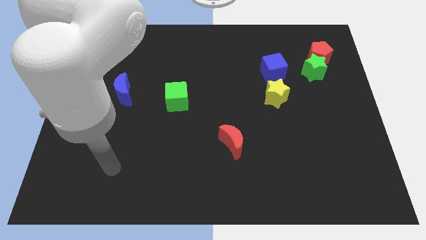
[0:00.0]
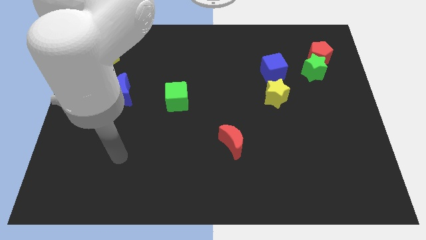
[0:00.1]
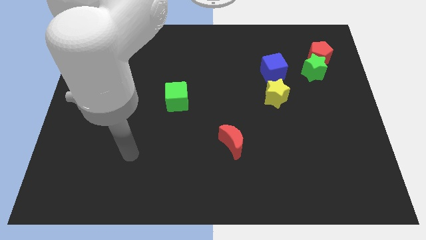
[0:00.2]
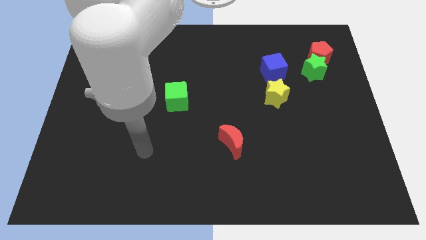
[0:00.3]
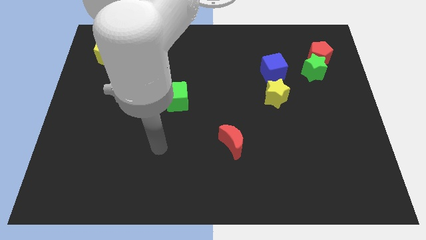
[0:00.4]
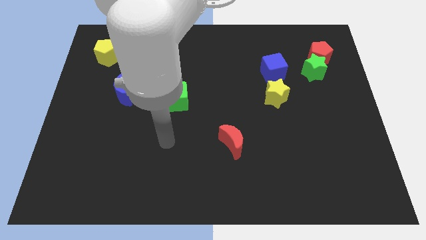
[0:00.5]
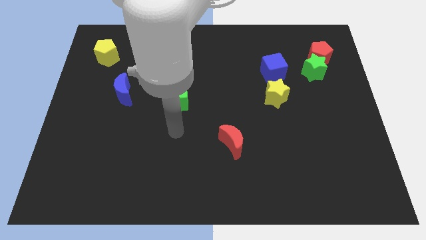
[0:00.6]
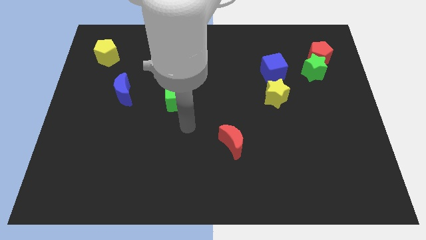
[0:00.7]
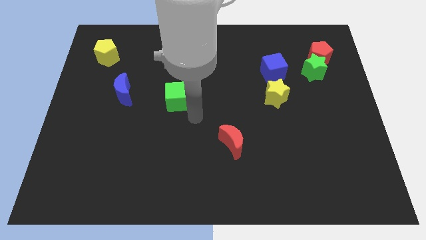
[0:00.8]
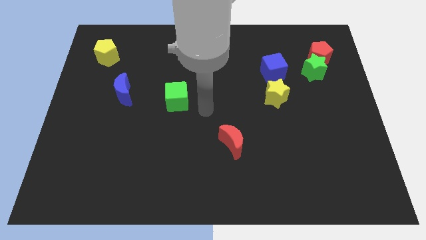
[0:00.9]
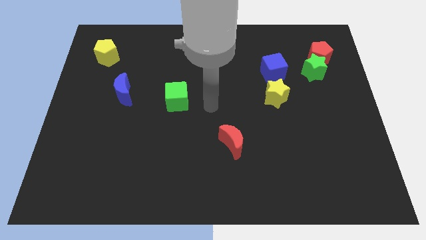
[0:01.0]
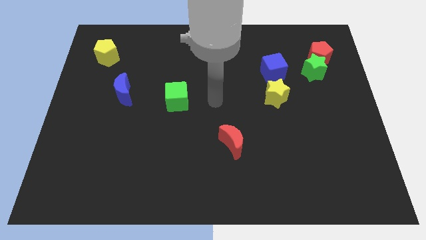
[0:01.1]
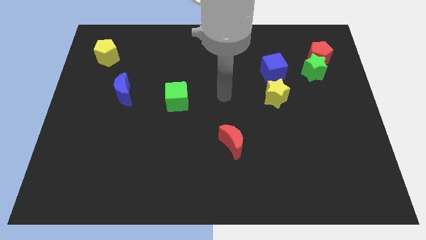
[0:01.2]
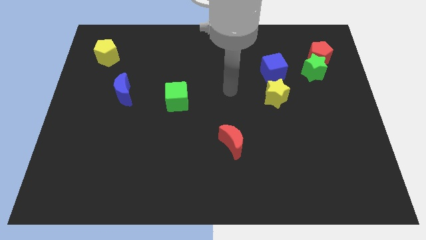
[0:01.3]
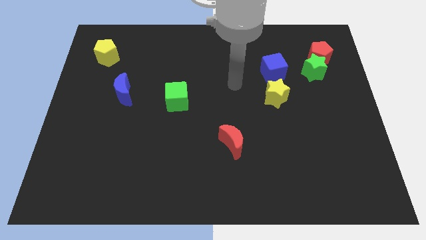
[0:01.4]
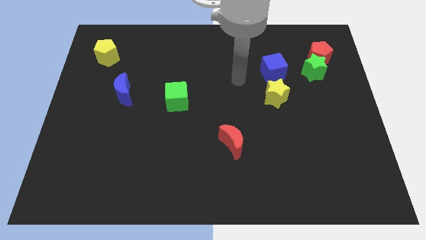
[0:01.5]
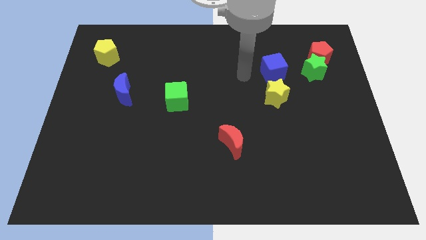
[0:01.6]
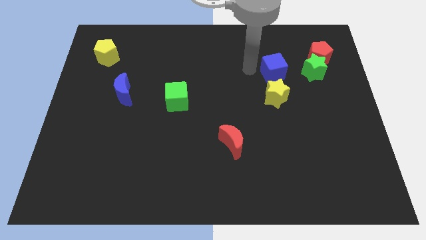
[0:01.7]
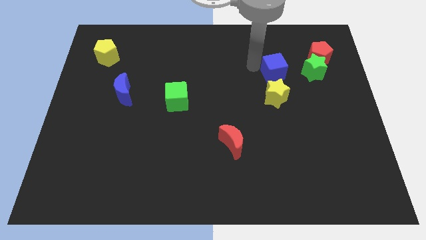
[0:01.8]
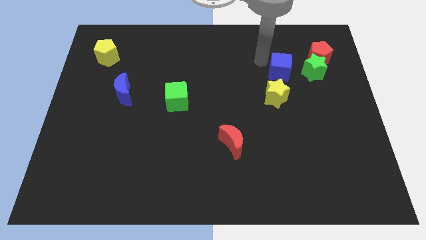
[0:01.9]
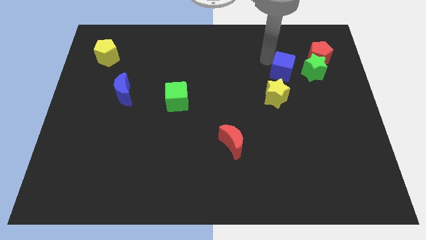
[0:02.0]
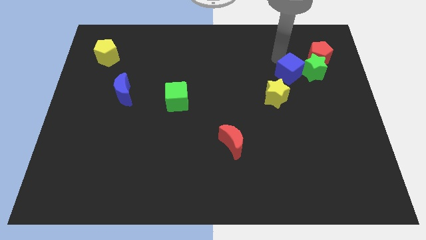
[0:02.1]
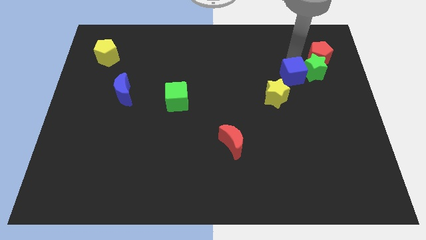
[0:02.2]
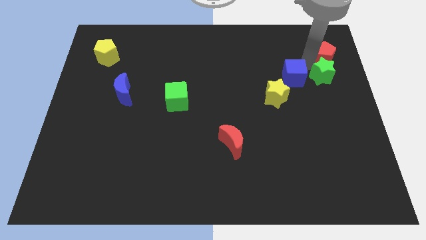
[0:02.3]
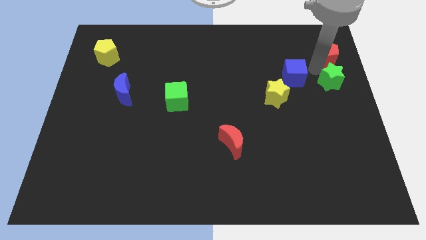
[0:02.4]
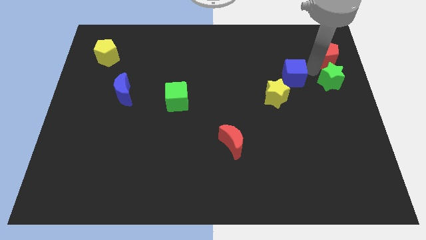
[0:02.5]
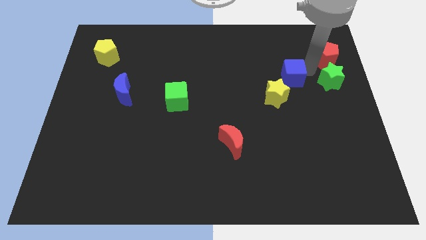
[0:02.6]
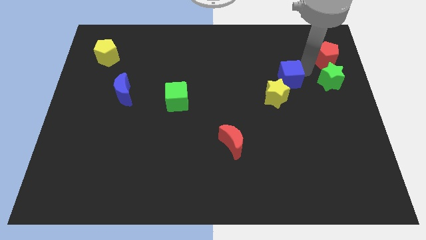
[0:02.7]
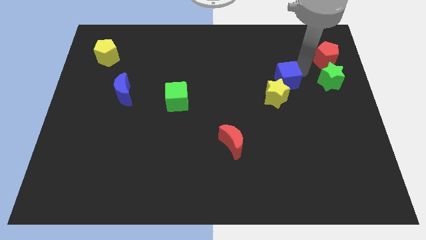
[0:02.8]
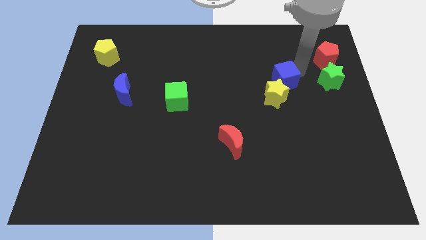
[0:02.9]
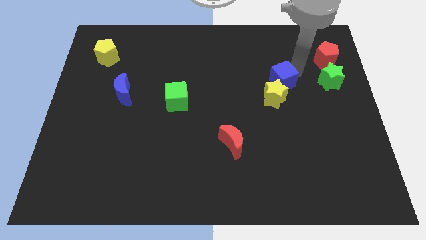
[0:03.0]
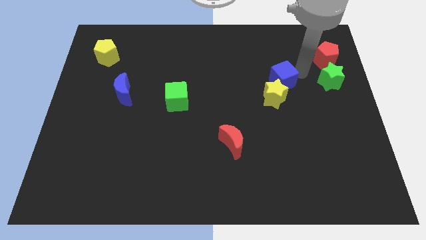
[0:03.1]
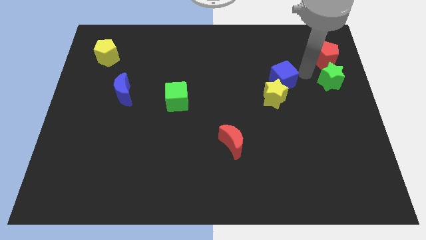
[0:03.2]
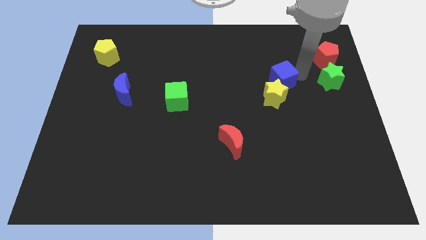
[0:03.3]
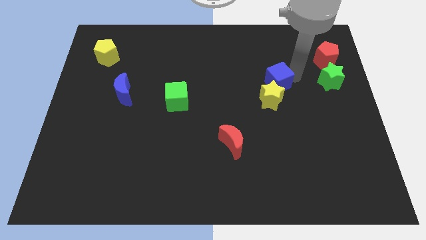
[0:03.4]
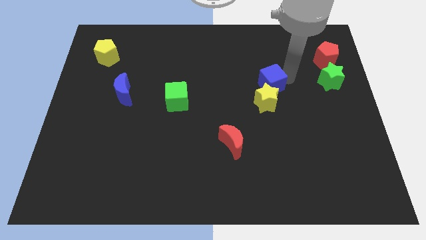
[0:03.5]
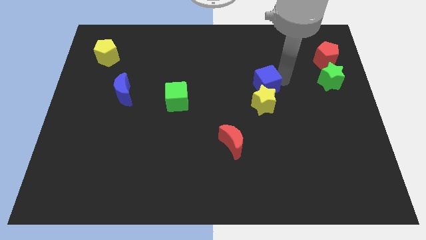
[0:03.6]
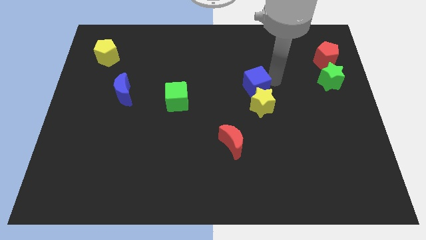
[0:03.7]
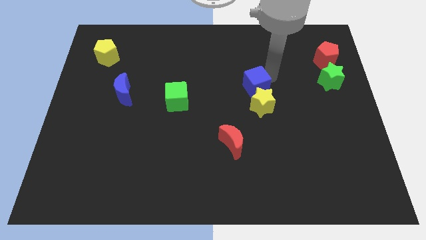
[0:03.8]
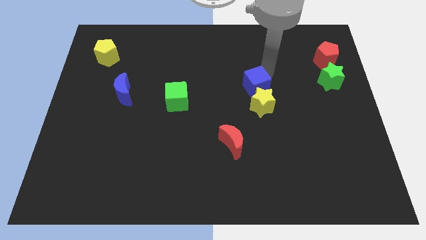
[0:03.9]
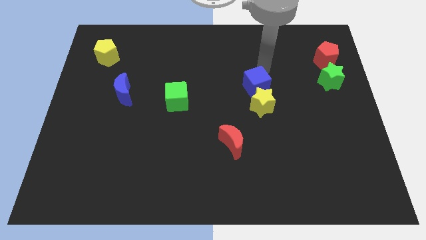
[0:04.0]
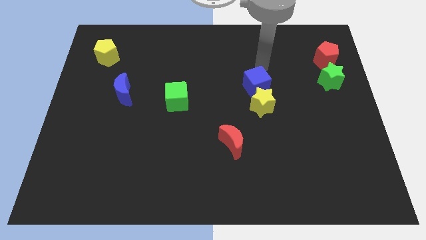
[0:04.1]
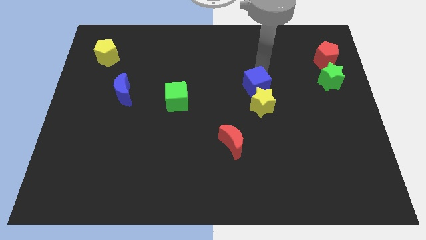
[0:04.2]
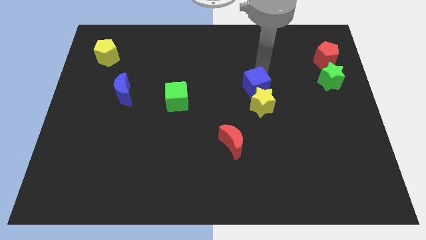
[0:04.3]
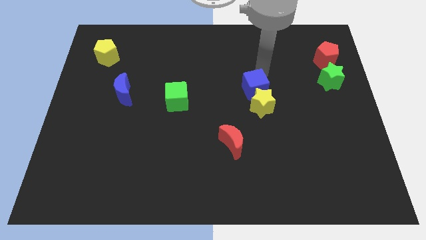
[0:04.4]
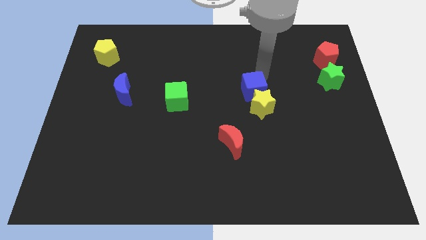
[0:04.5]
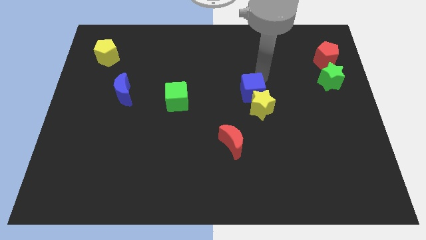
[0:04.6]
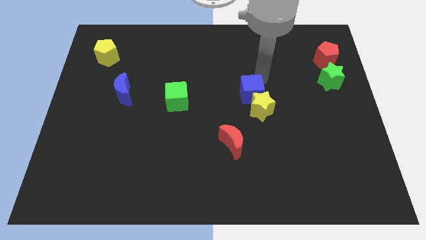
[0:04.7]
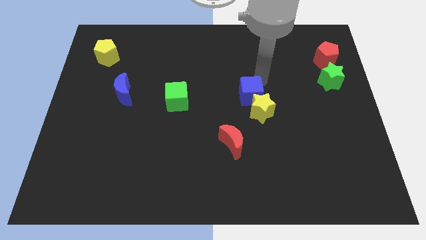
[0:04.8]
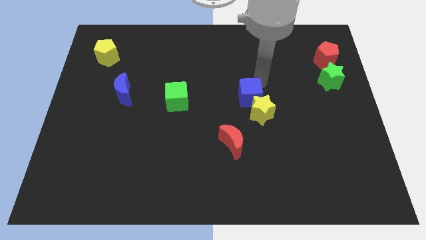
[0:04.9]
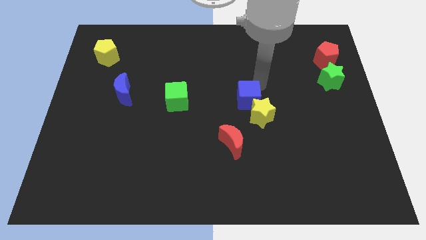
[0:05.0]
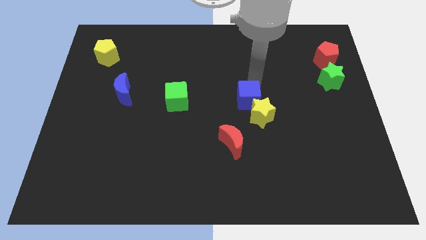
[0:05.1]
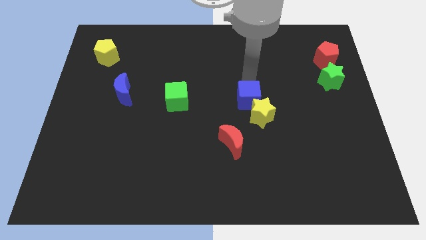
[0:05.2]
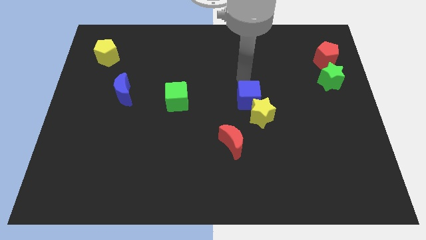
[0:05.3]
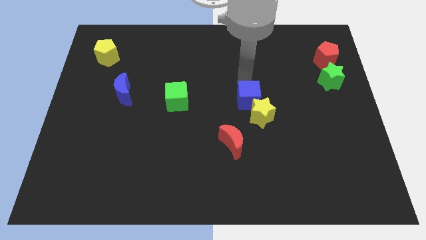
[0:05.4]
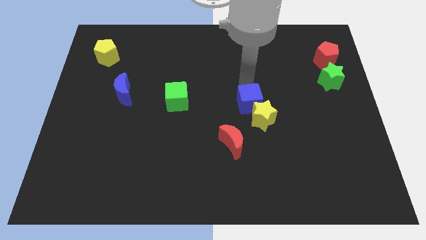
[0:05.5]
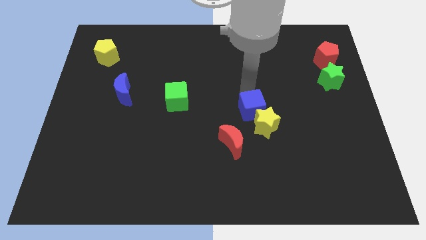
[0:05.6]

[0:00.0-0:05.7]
move the blue cube diagonally up and to the right of the red moon

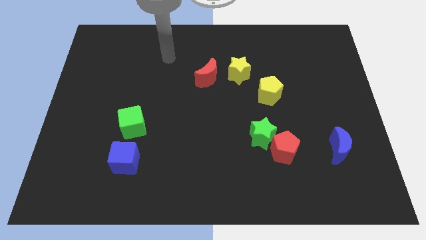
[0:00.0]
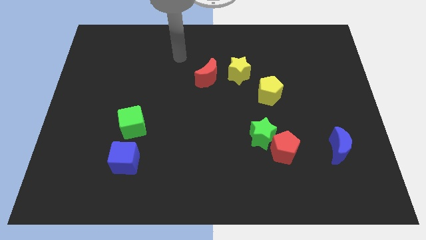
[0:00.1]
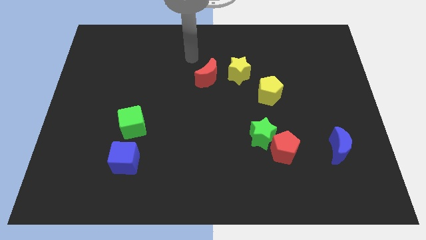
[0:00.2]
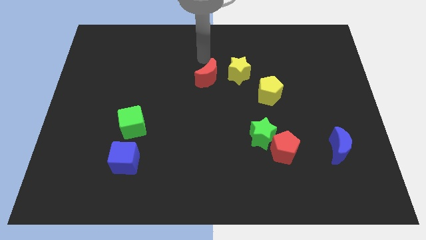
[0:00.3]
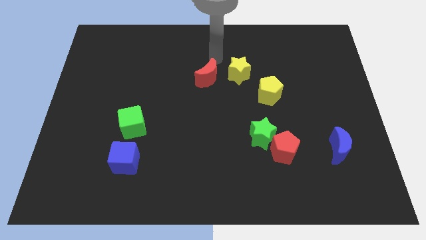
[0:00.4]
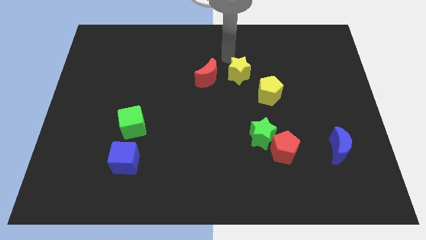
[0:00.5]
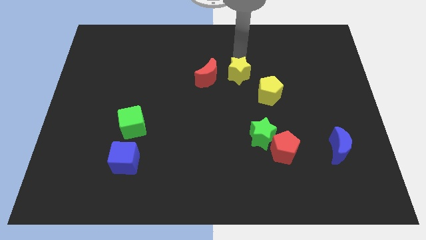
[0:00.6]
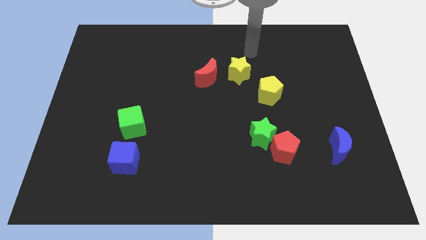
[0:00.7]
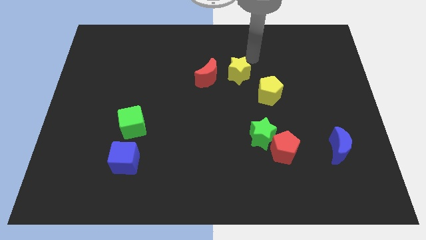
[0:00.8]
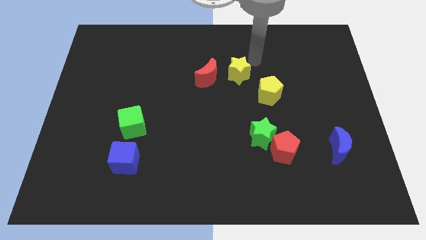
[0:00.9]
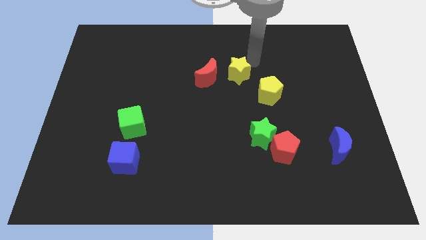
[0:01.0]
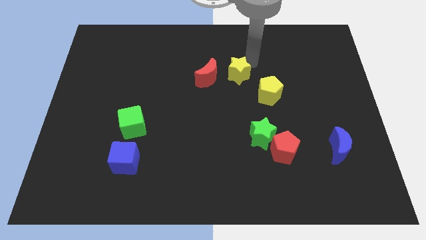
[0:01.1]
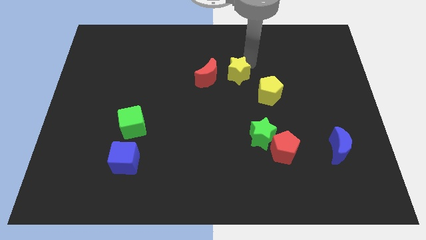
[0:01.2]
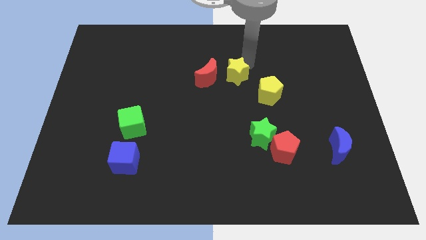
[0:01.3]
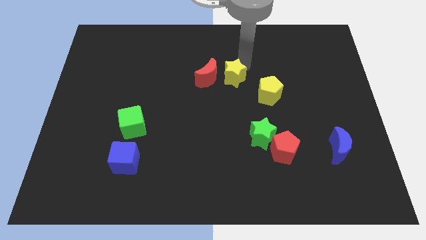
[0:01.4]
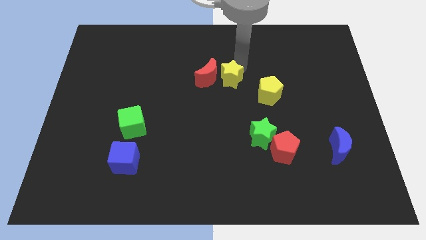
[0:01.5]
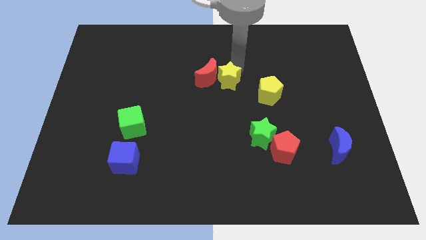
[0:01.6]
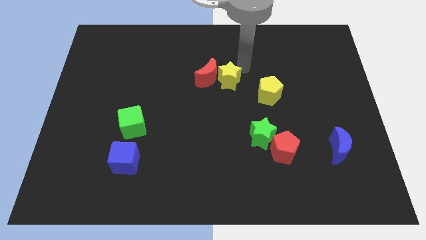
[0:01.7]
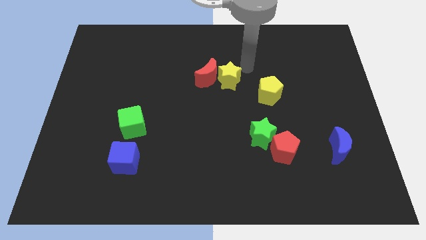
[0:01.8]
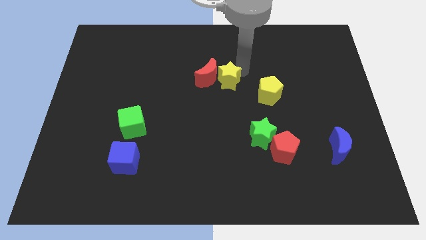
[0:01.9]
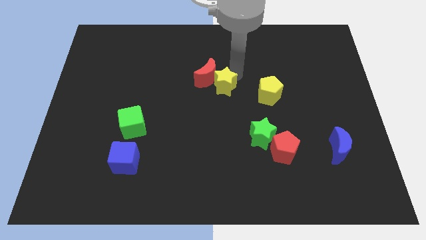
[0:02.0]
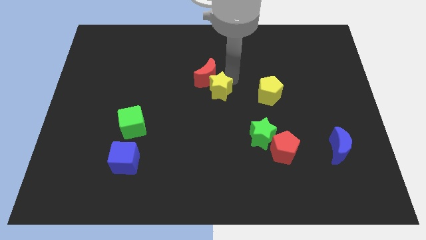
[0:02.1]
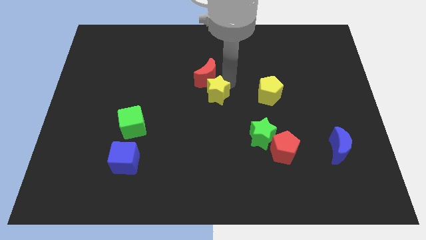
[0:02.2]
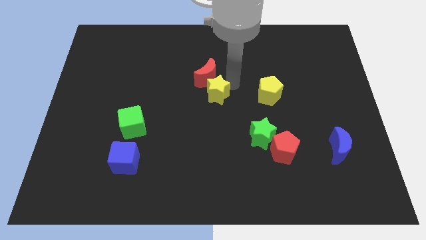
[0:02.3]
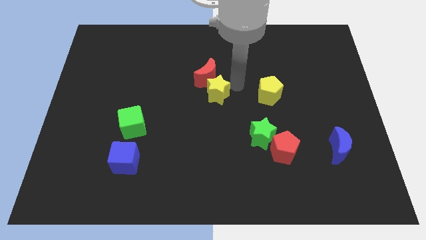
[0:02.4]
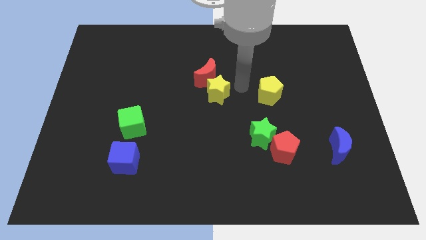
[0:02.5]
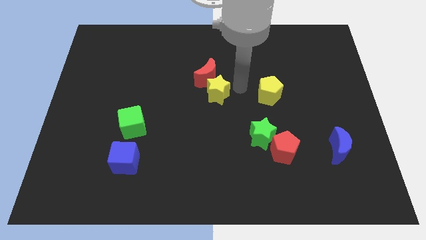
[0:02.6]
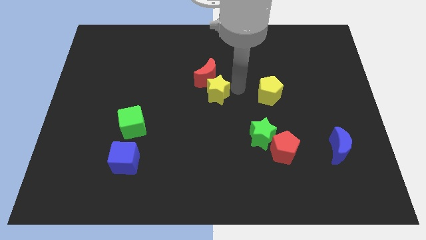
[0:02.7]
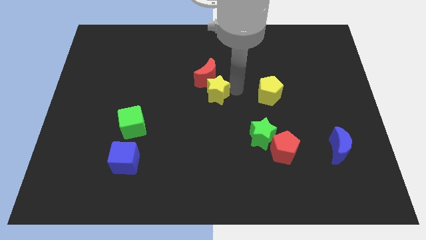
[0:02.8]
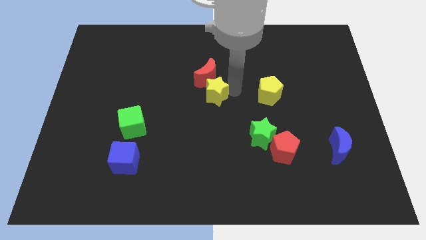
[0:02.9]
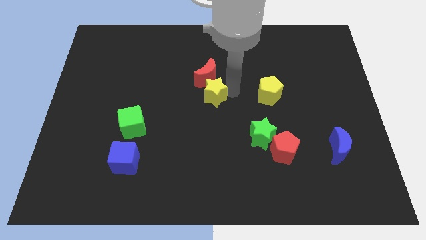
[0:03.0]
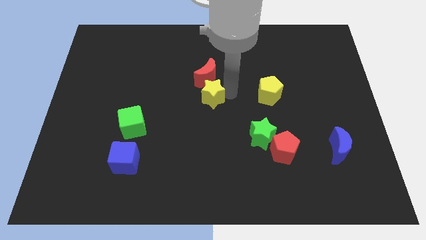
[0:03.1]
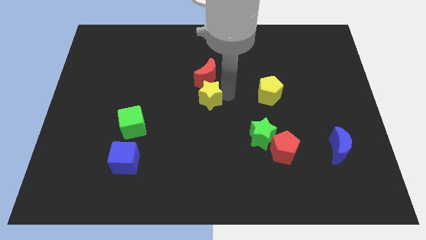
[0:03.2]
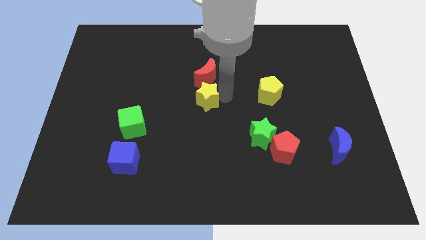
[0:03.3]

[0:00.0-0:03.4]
slide the yellow star to the bottom left side of the red moon
